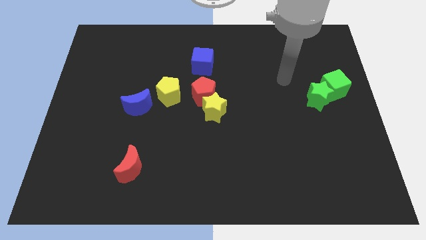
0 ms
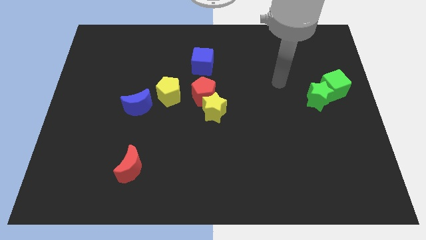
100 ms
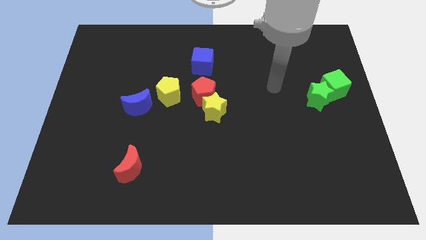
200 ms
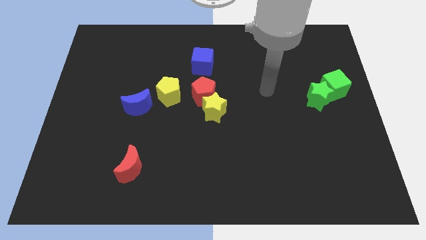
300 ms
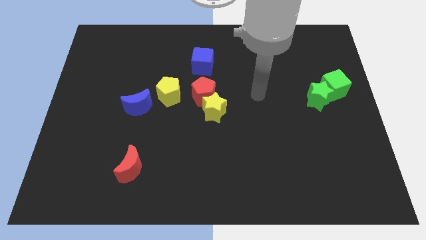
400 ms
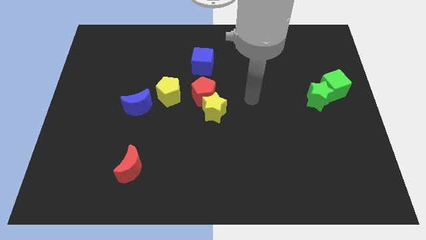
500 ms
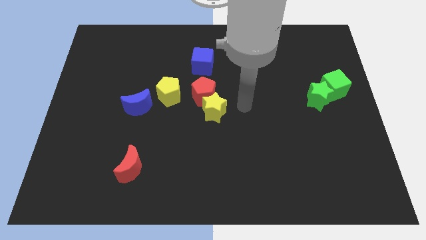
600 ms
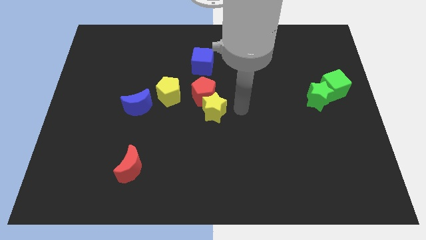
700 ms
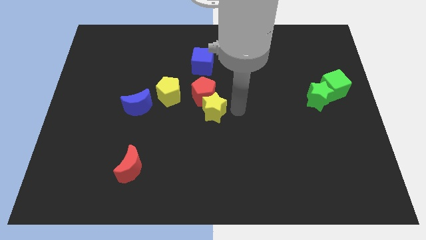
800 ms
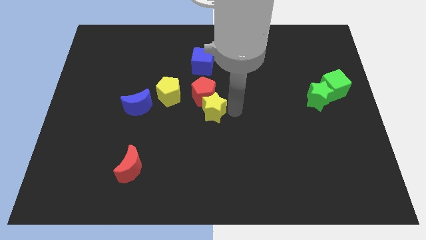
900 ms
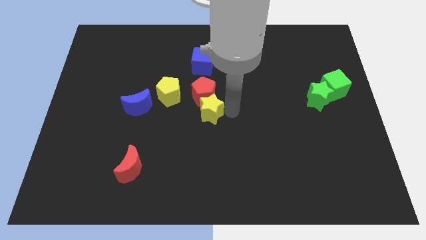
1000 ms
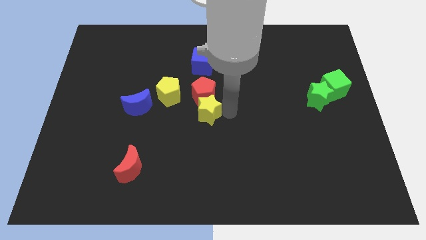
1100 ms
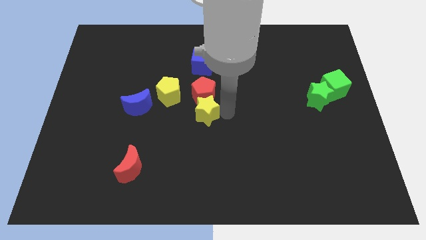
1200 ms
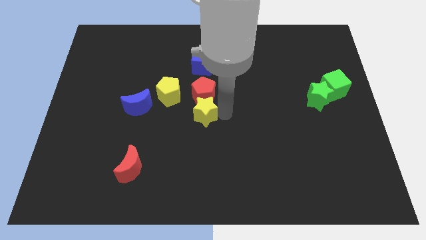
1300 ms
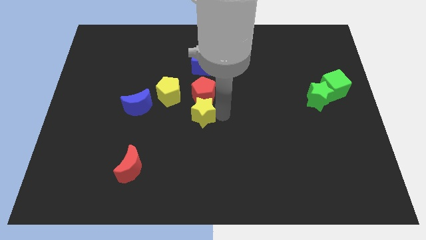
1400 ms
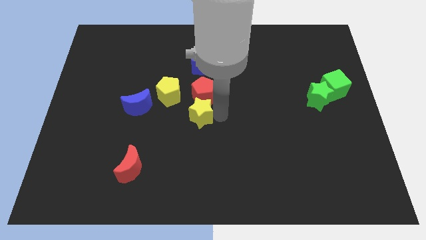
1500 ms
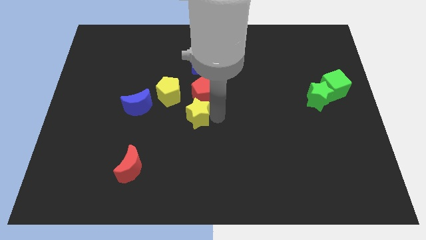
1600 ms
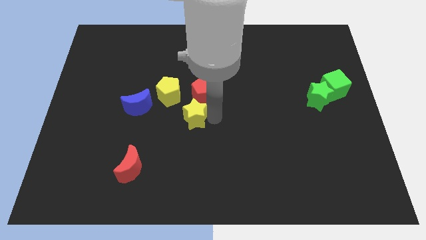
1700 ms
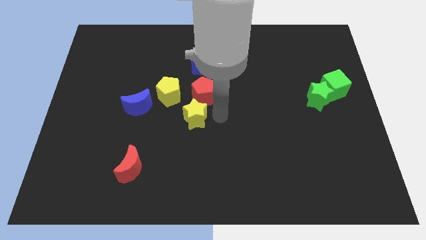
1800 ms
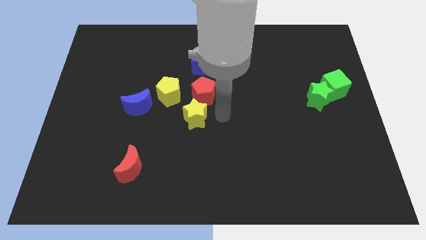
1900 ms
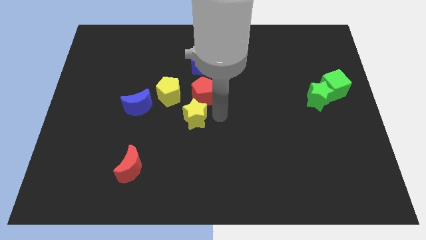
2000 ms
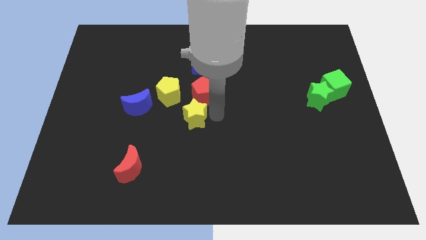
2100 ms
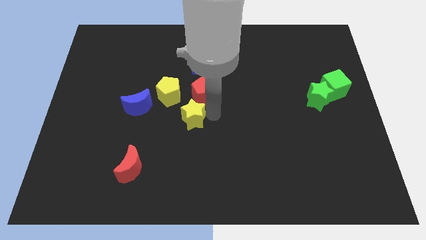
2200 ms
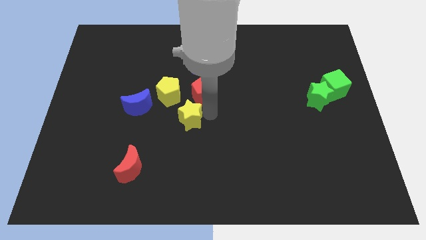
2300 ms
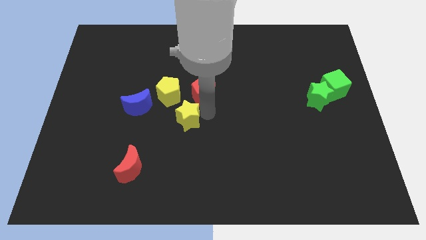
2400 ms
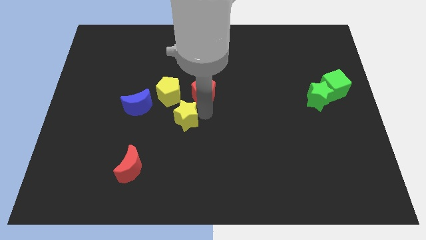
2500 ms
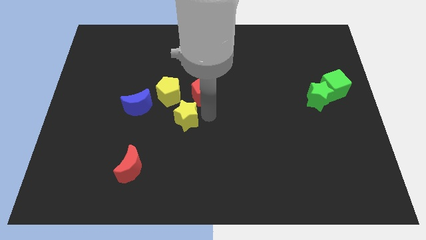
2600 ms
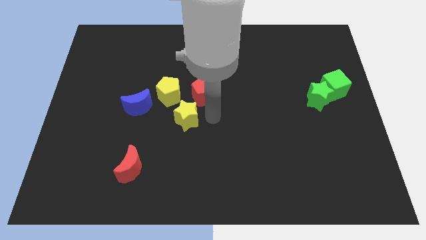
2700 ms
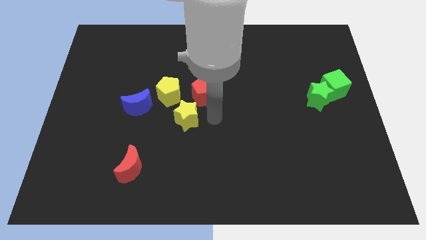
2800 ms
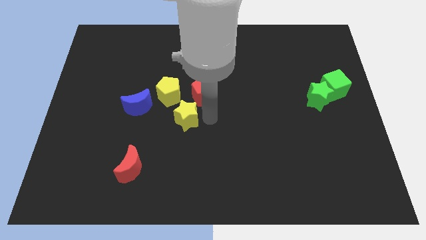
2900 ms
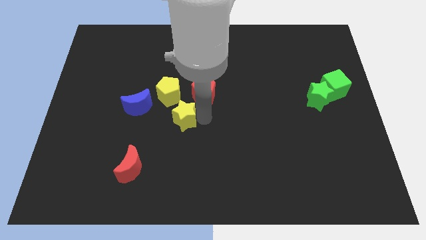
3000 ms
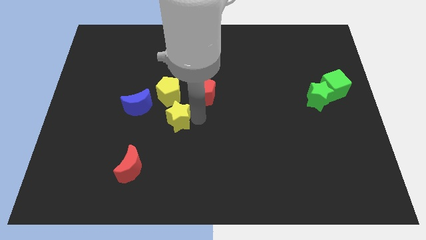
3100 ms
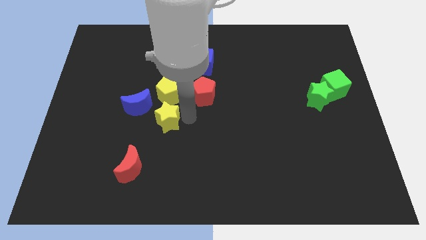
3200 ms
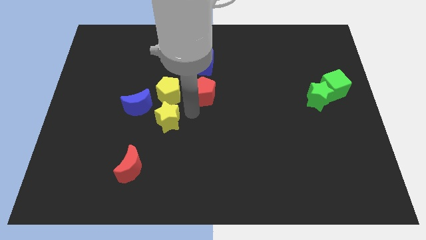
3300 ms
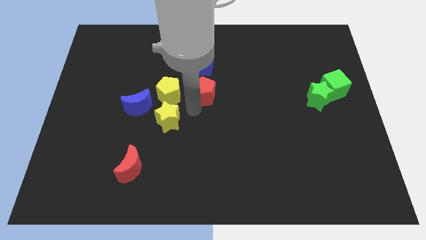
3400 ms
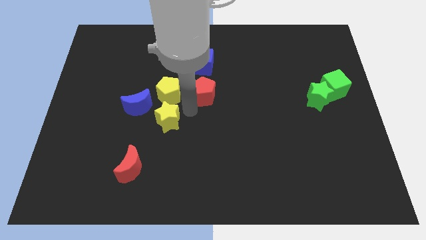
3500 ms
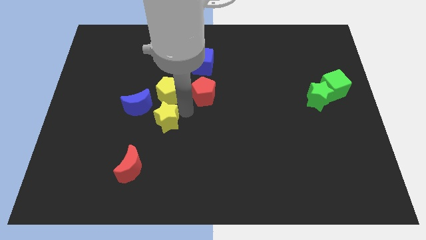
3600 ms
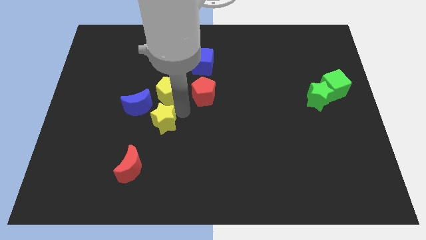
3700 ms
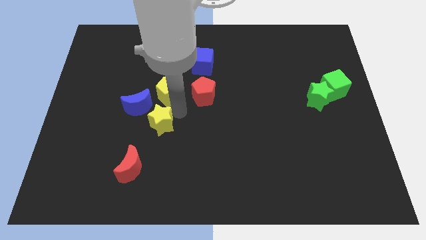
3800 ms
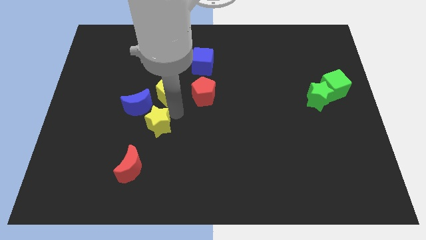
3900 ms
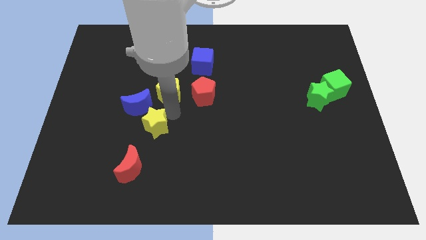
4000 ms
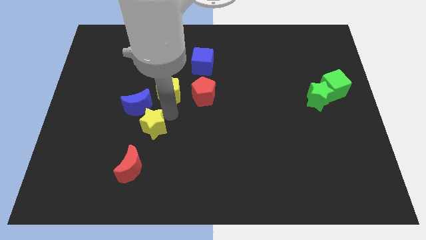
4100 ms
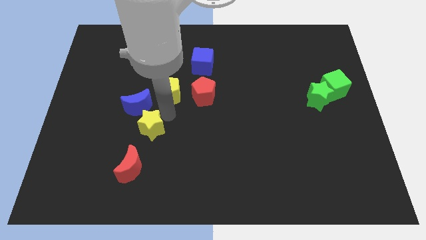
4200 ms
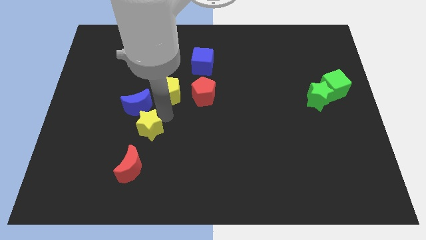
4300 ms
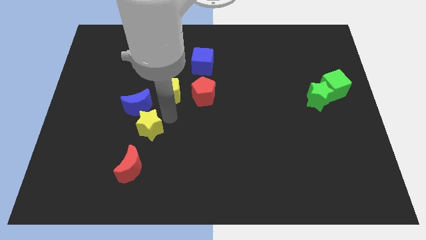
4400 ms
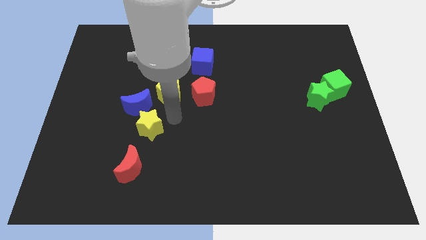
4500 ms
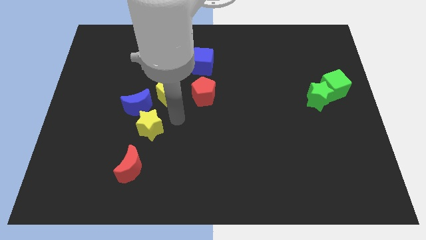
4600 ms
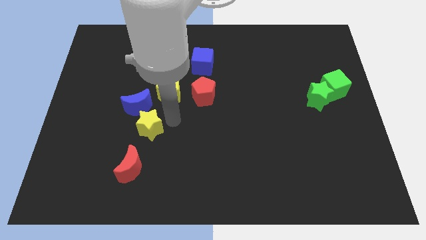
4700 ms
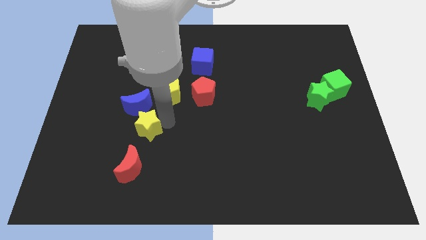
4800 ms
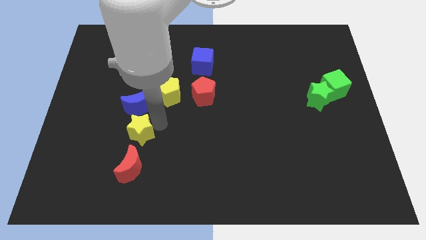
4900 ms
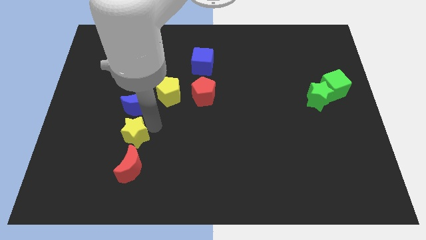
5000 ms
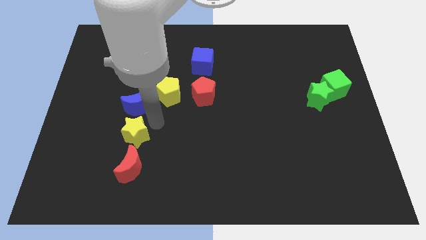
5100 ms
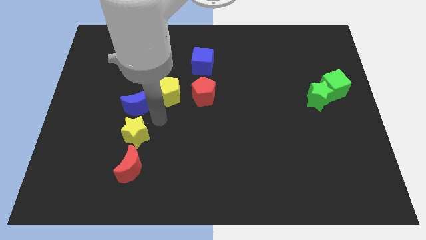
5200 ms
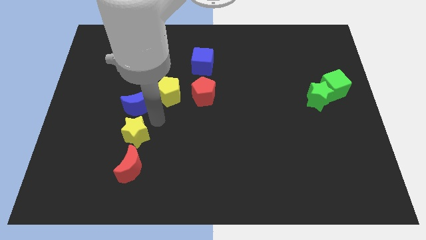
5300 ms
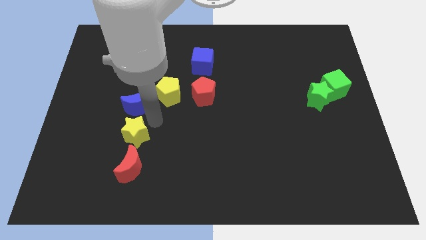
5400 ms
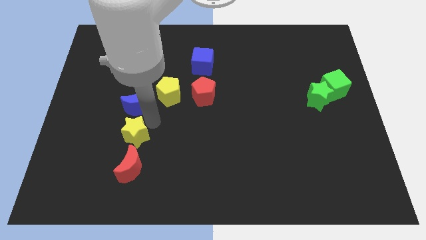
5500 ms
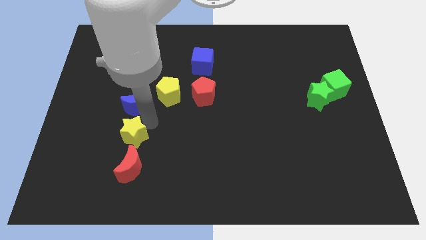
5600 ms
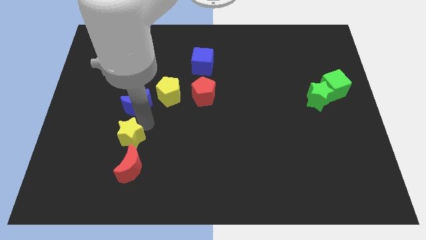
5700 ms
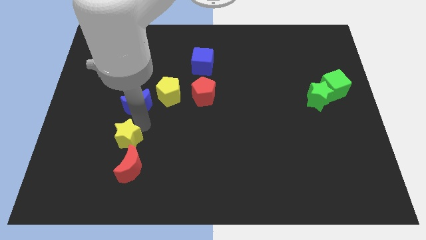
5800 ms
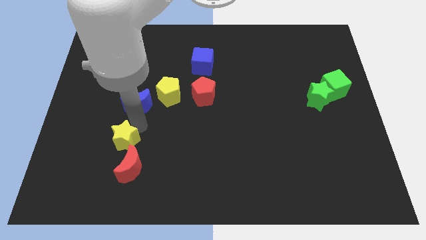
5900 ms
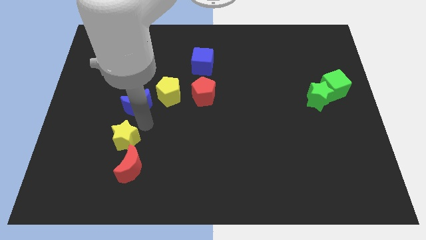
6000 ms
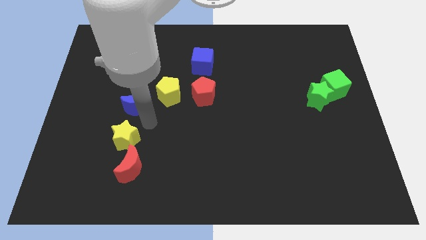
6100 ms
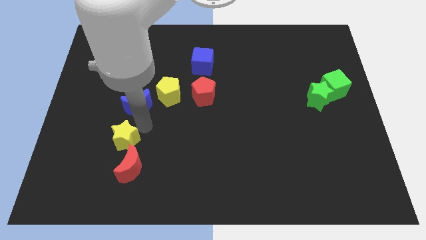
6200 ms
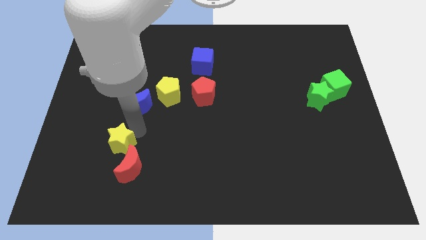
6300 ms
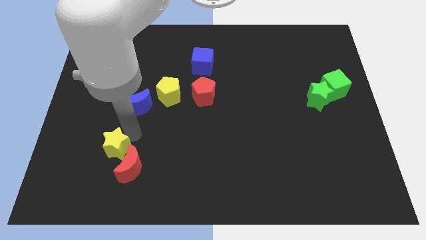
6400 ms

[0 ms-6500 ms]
put the yellow star just left of the red moon

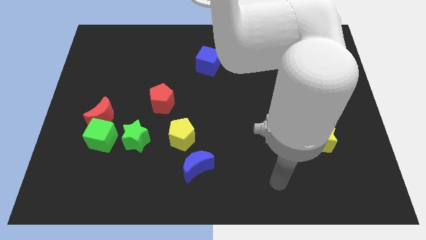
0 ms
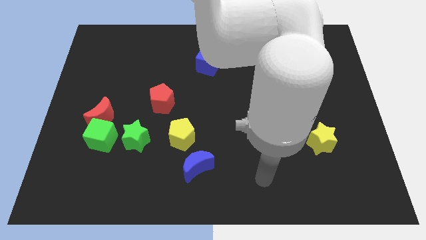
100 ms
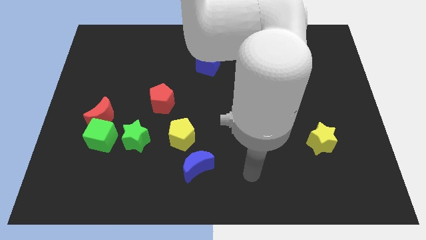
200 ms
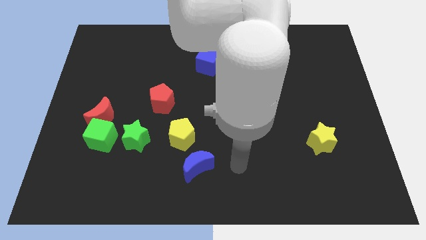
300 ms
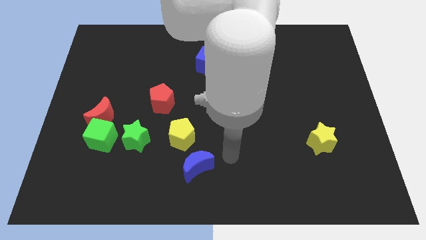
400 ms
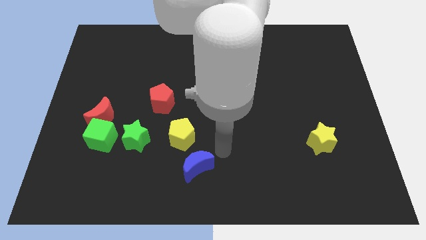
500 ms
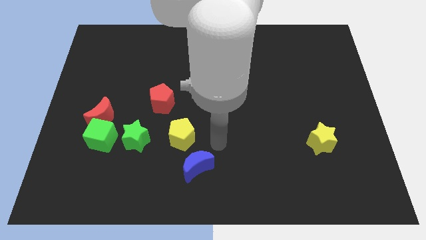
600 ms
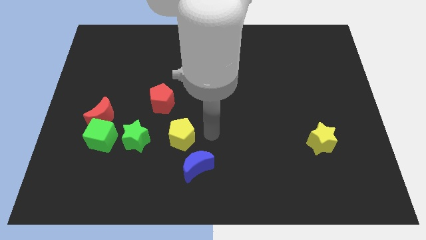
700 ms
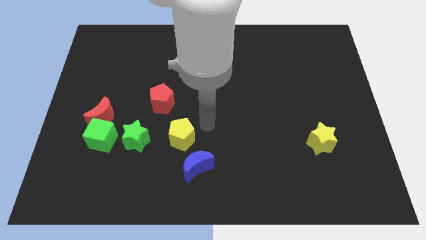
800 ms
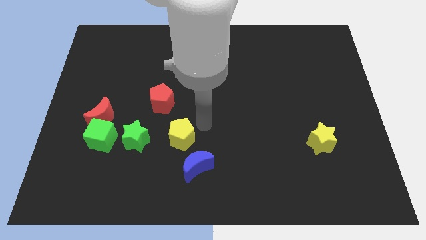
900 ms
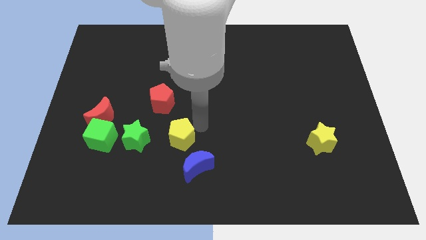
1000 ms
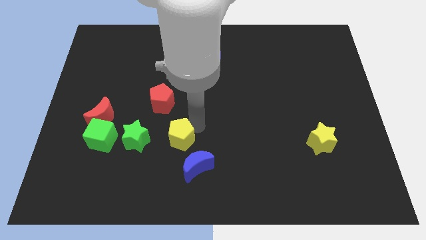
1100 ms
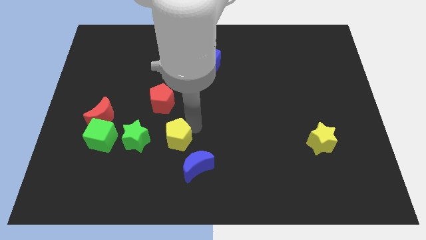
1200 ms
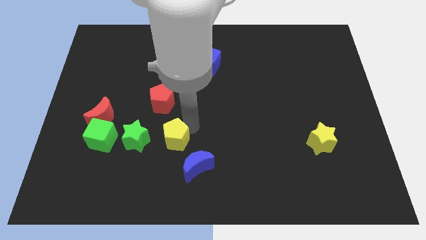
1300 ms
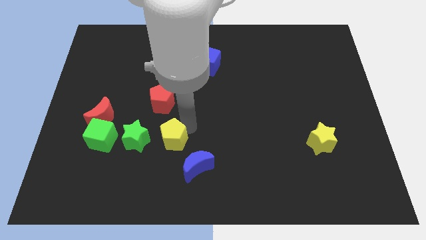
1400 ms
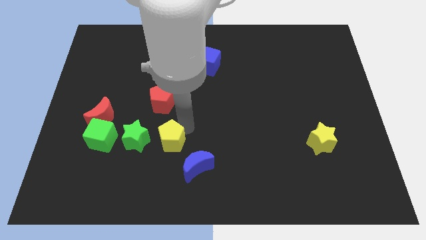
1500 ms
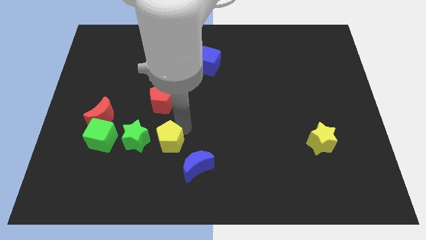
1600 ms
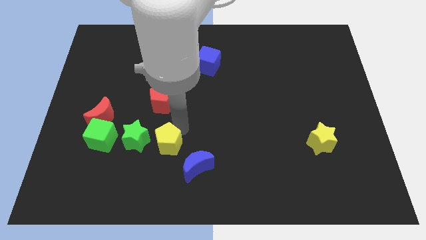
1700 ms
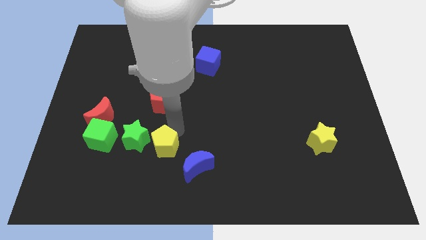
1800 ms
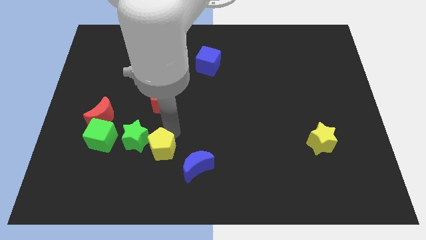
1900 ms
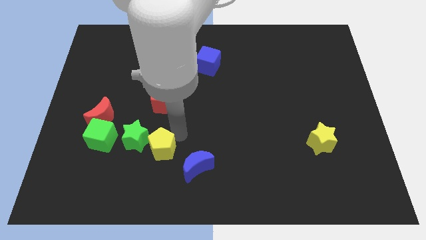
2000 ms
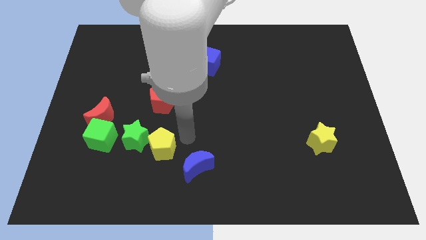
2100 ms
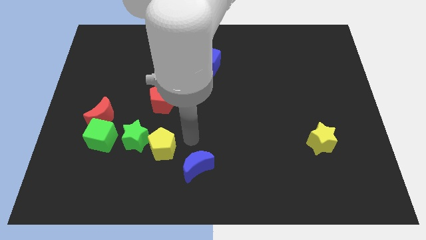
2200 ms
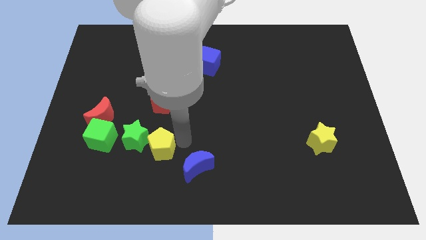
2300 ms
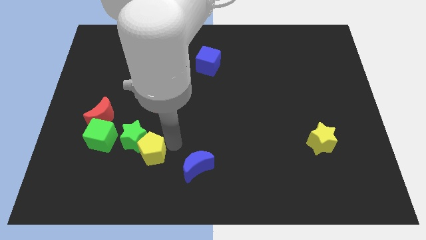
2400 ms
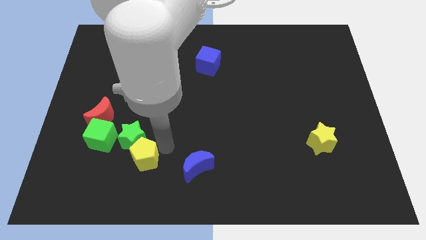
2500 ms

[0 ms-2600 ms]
move the yellow pentagon diagonally down and to the right of the green cube
